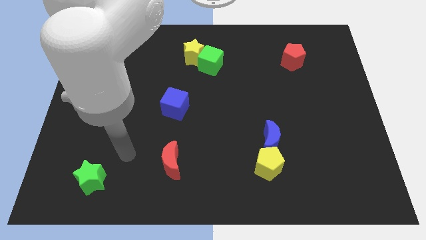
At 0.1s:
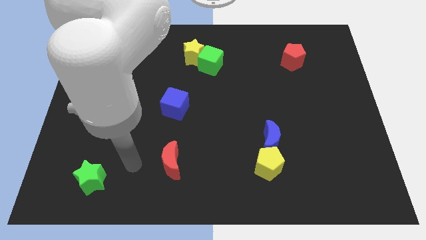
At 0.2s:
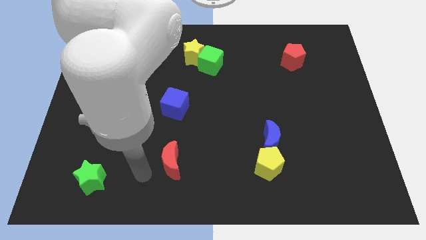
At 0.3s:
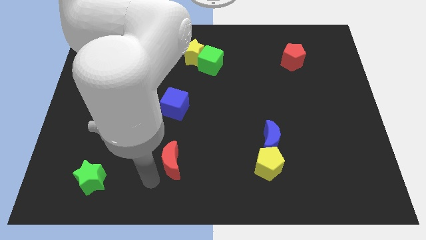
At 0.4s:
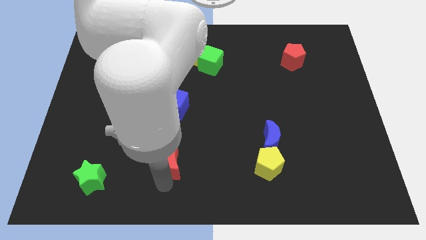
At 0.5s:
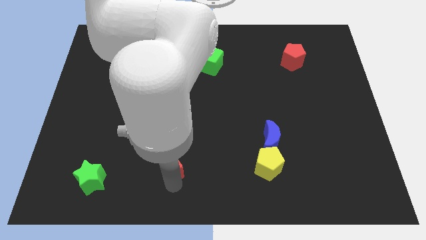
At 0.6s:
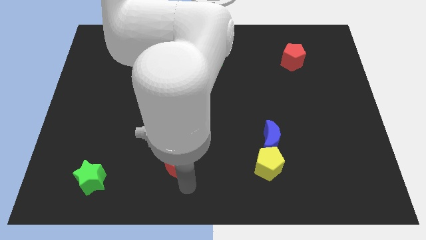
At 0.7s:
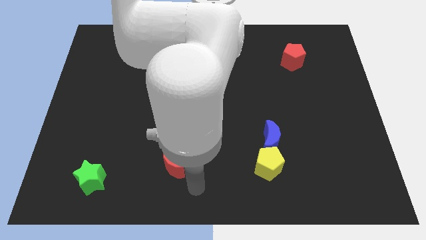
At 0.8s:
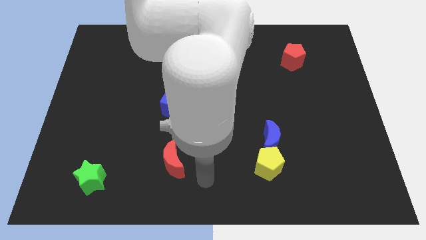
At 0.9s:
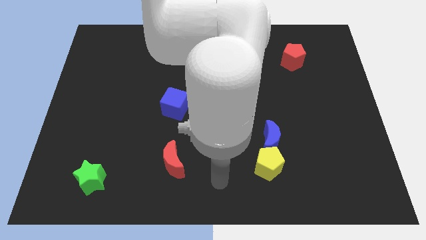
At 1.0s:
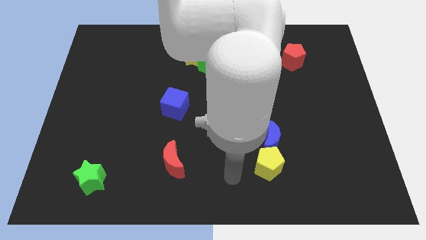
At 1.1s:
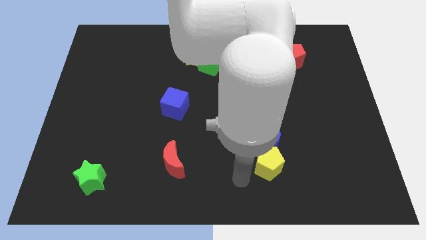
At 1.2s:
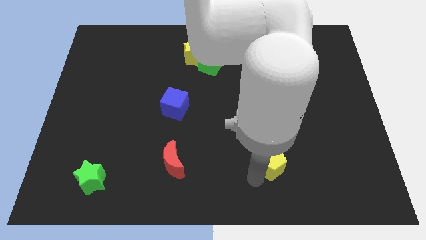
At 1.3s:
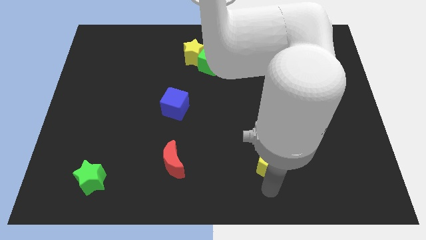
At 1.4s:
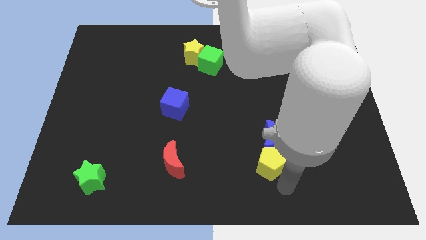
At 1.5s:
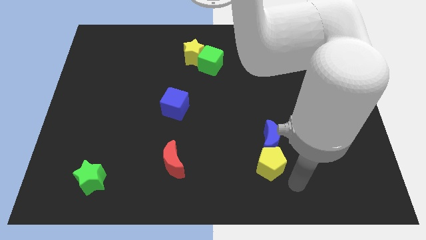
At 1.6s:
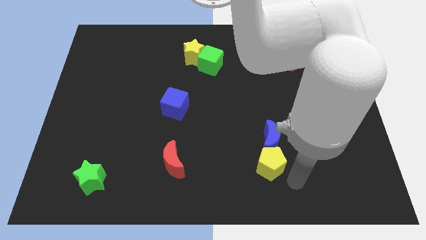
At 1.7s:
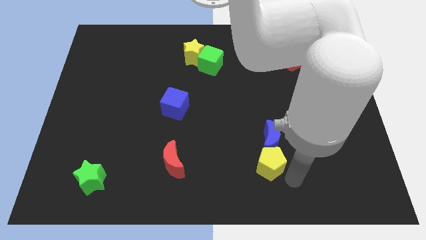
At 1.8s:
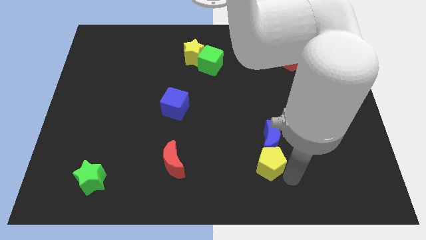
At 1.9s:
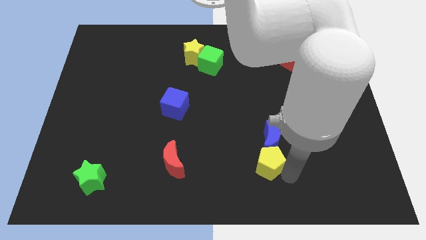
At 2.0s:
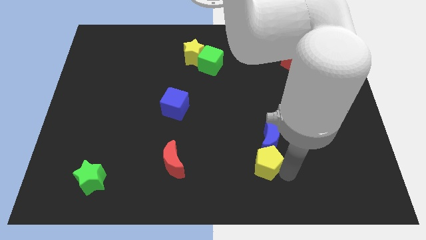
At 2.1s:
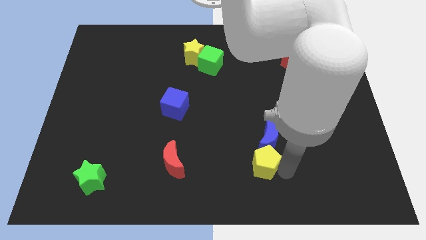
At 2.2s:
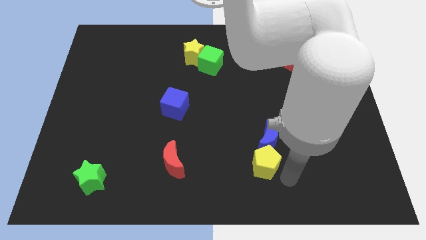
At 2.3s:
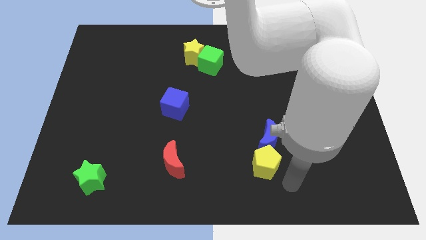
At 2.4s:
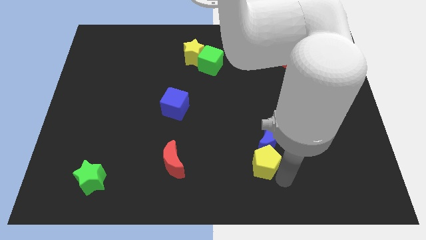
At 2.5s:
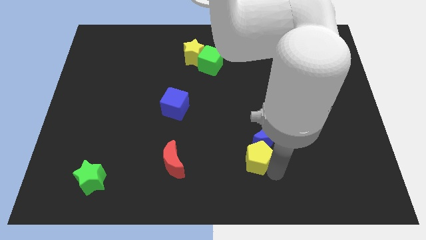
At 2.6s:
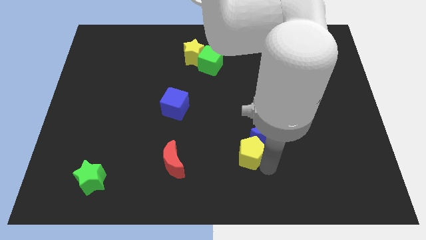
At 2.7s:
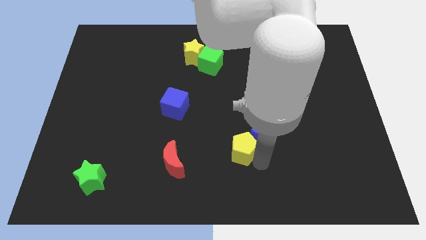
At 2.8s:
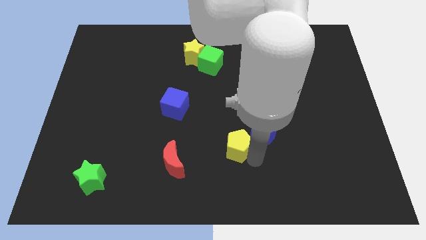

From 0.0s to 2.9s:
move the yellow pentagon upwards and then to the left a little bit

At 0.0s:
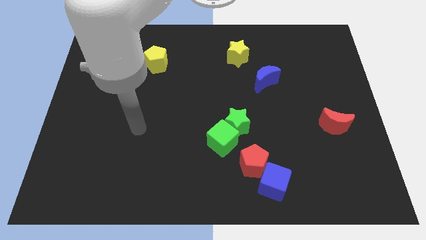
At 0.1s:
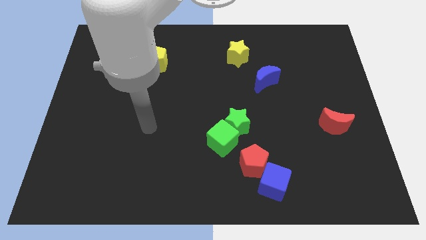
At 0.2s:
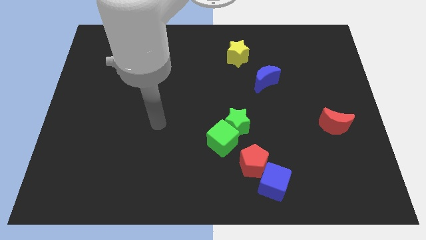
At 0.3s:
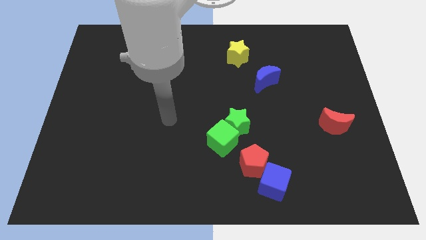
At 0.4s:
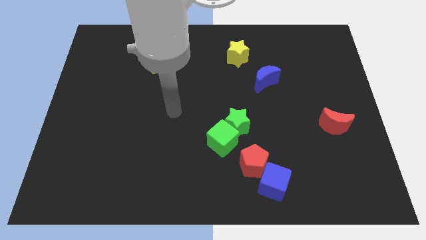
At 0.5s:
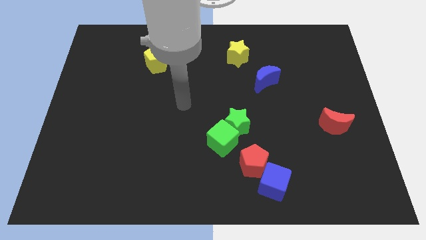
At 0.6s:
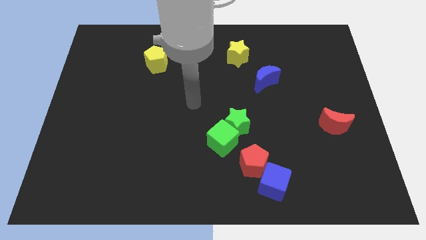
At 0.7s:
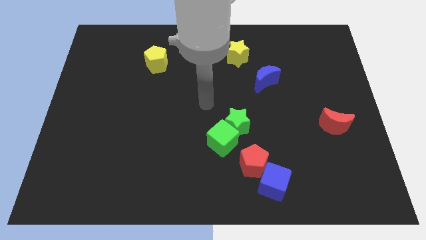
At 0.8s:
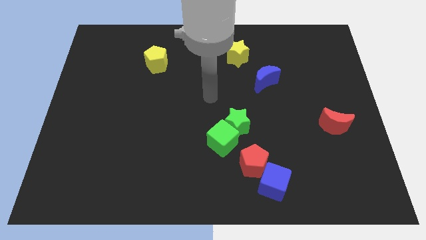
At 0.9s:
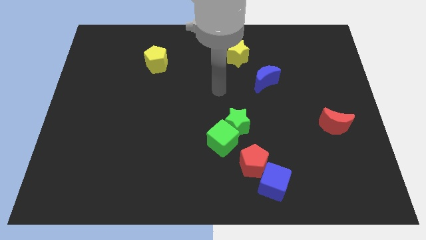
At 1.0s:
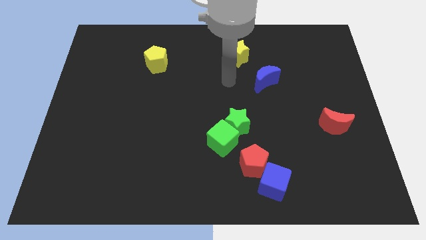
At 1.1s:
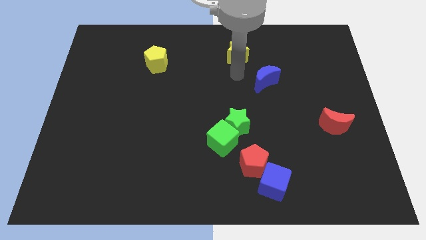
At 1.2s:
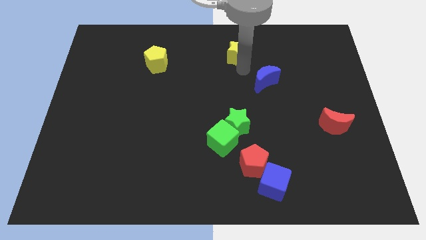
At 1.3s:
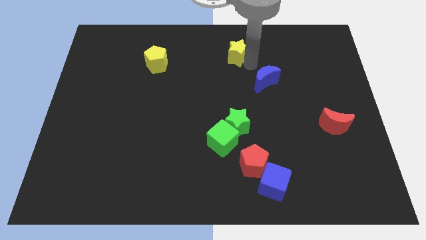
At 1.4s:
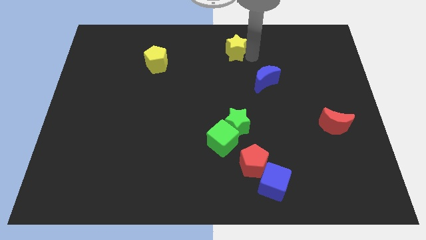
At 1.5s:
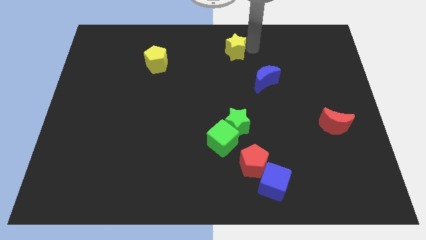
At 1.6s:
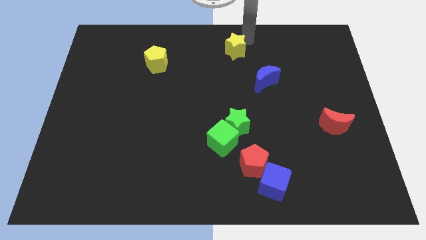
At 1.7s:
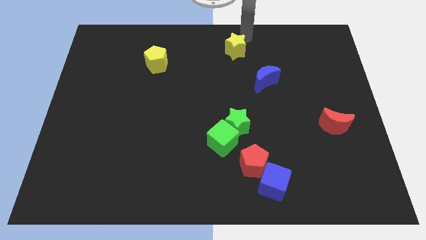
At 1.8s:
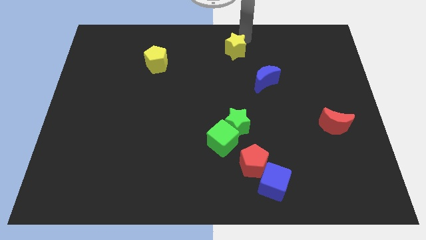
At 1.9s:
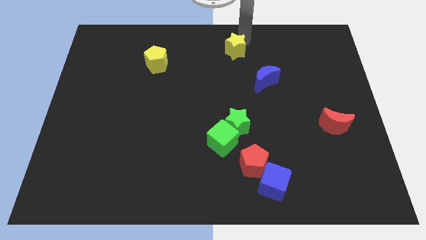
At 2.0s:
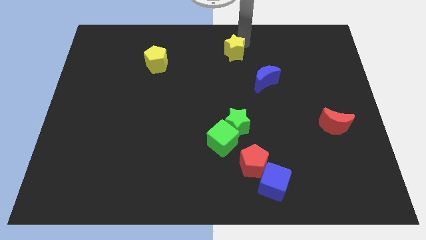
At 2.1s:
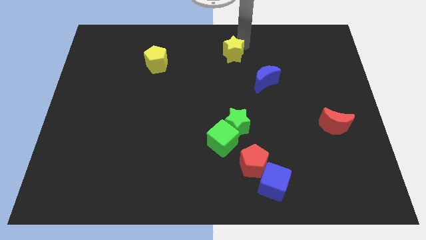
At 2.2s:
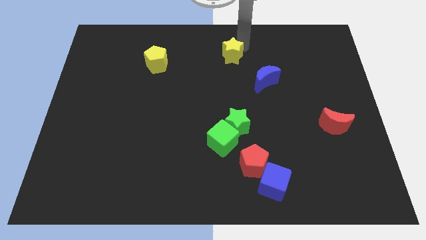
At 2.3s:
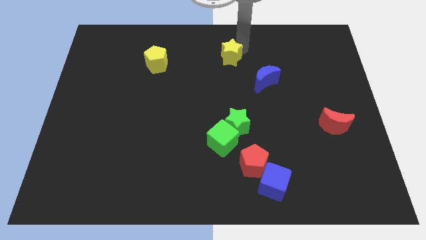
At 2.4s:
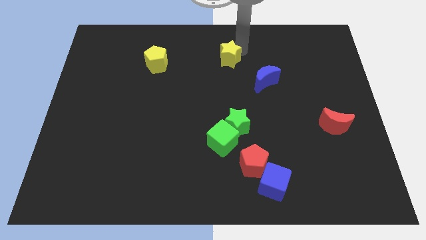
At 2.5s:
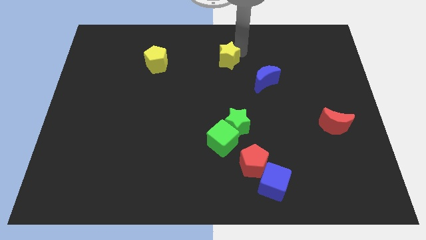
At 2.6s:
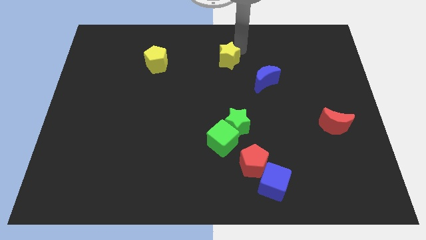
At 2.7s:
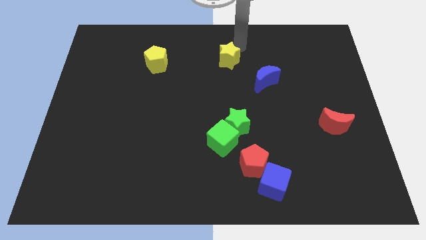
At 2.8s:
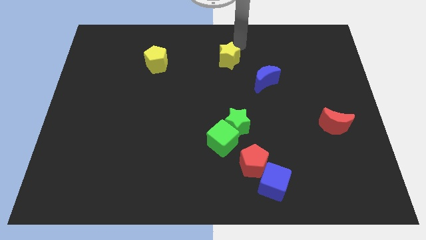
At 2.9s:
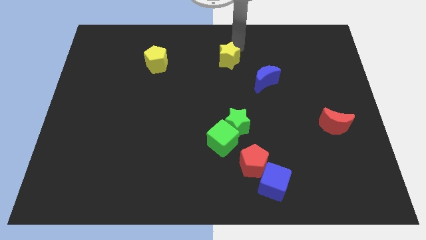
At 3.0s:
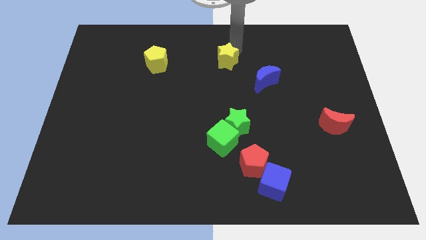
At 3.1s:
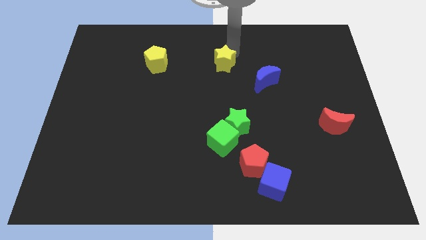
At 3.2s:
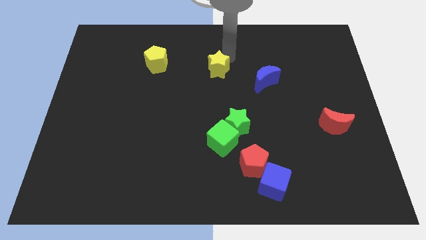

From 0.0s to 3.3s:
slide the yellow star downwards and left a little

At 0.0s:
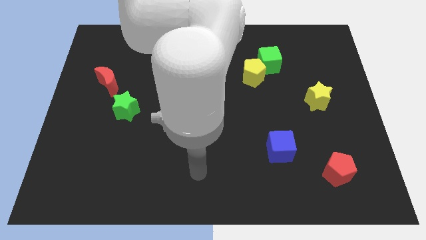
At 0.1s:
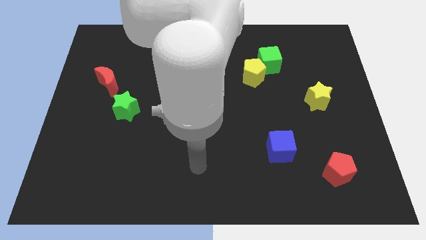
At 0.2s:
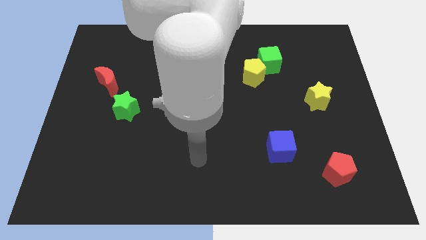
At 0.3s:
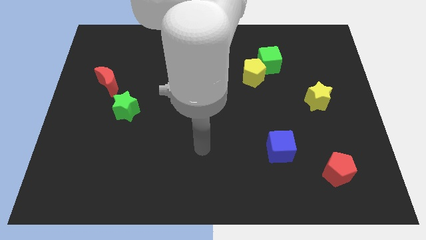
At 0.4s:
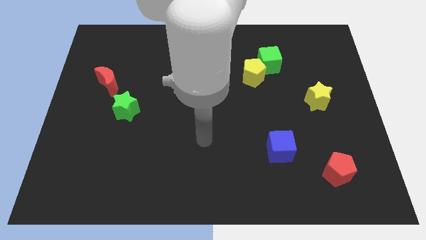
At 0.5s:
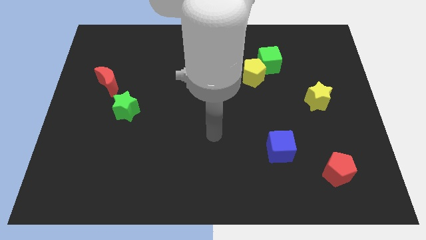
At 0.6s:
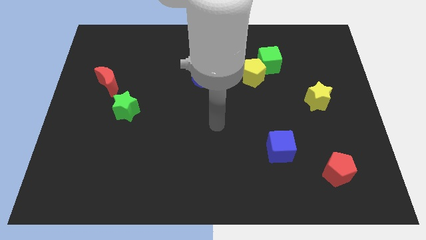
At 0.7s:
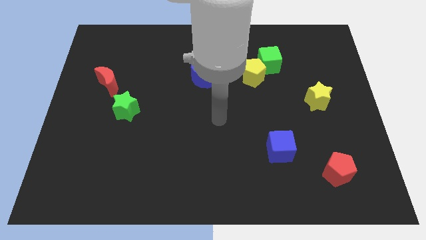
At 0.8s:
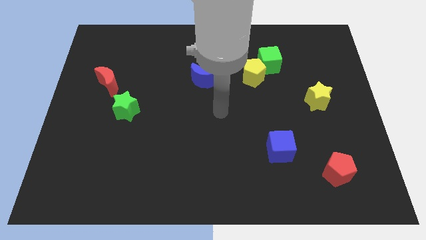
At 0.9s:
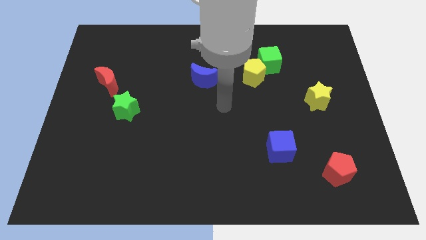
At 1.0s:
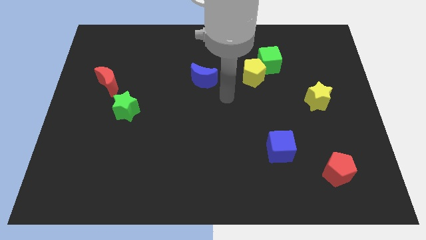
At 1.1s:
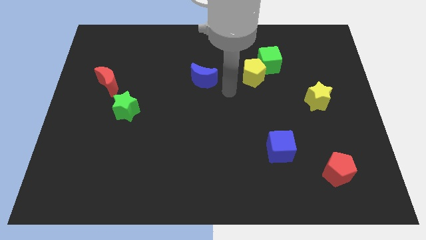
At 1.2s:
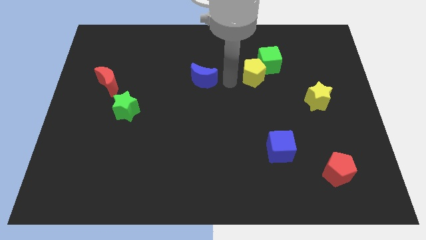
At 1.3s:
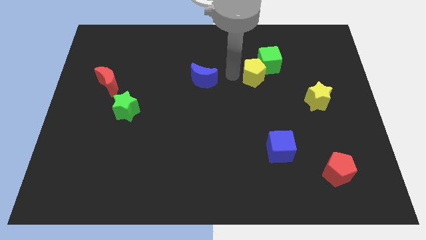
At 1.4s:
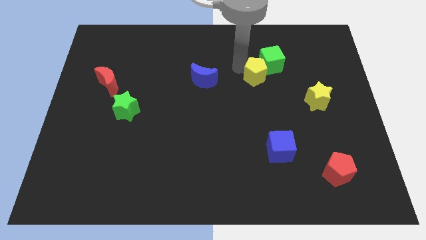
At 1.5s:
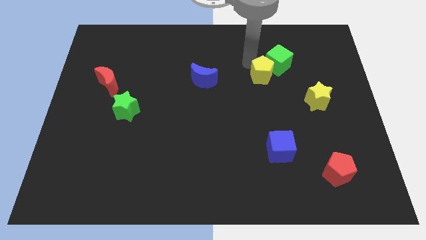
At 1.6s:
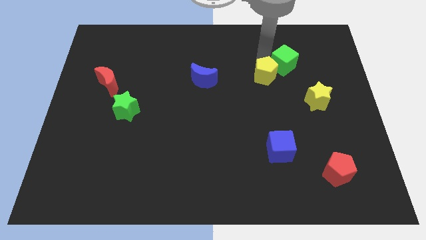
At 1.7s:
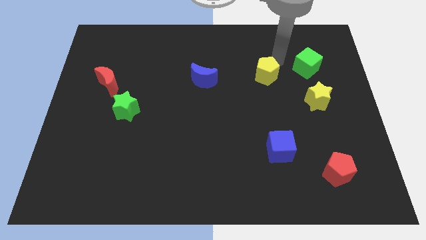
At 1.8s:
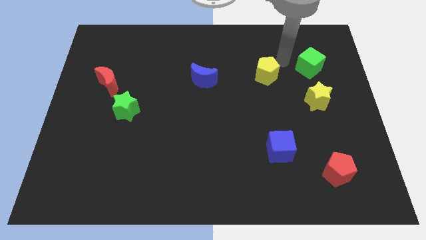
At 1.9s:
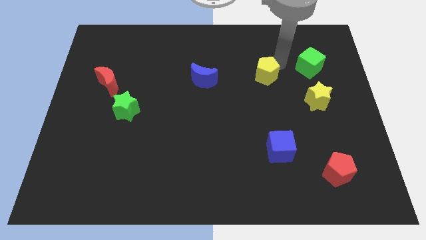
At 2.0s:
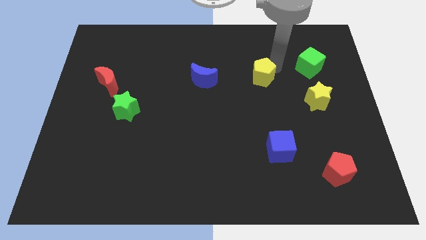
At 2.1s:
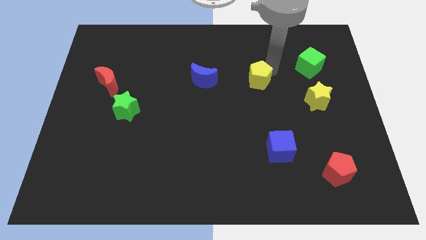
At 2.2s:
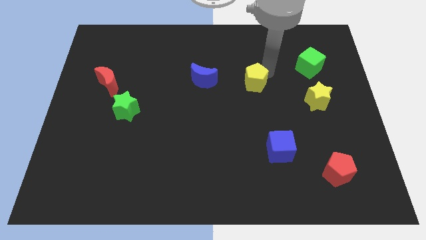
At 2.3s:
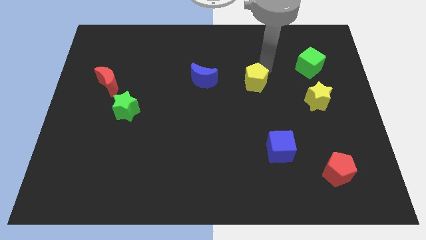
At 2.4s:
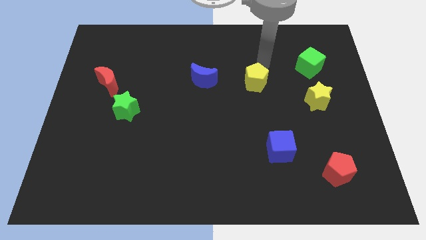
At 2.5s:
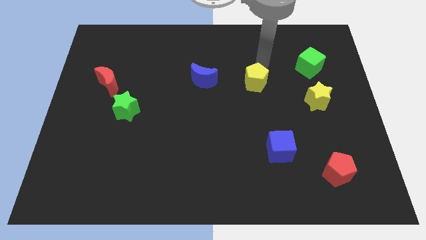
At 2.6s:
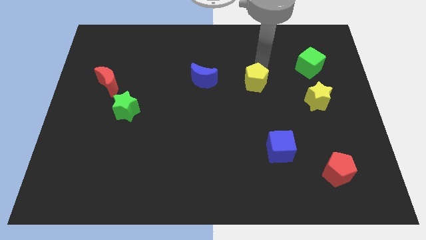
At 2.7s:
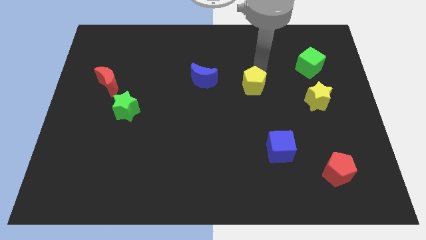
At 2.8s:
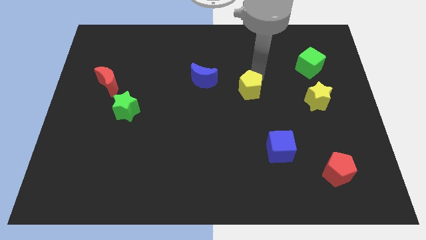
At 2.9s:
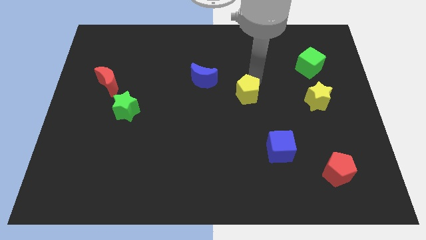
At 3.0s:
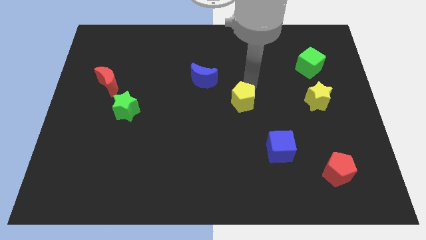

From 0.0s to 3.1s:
slide the yellow pentagon a little bit down
